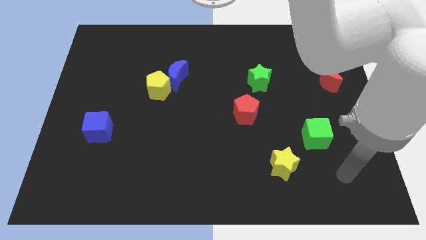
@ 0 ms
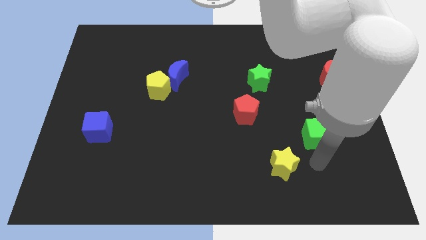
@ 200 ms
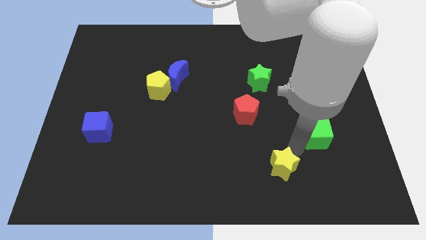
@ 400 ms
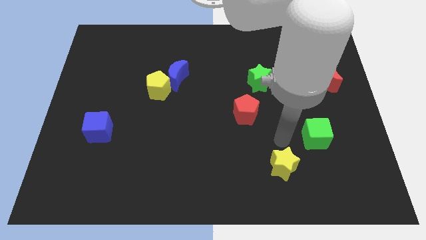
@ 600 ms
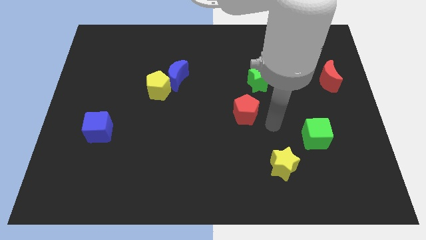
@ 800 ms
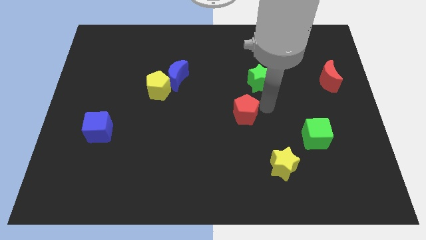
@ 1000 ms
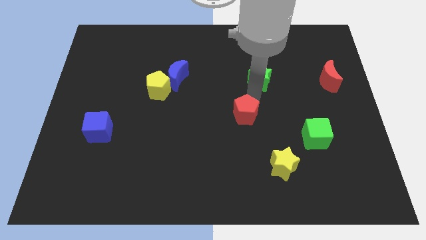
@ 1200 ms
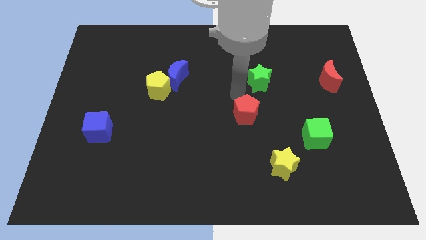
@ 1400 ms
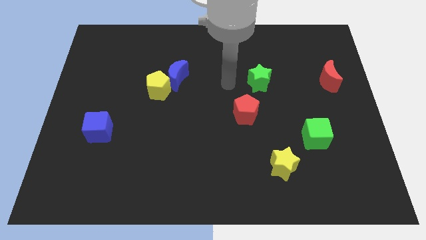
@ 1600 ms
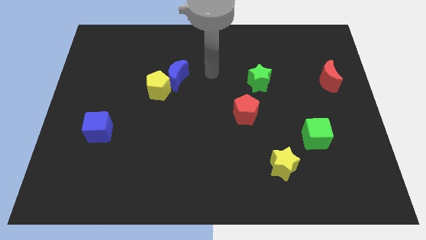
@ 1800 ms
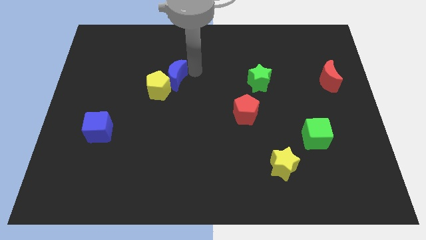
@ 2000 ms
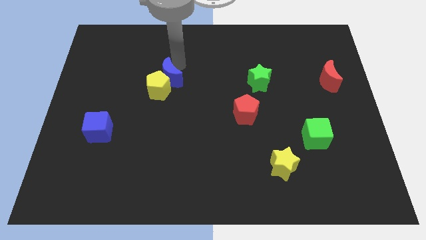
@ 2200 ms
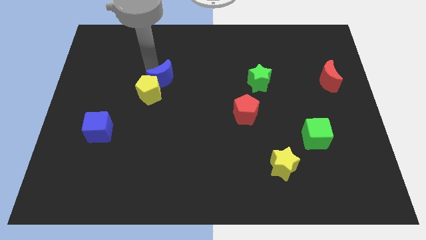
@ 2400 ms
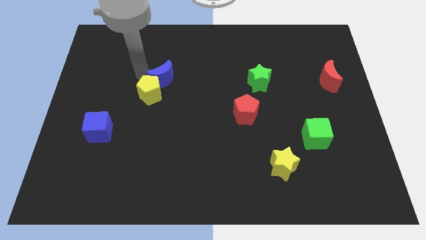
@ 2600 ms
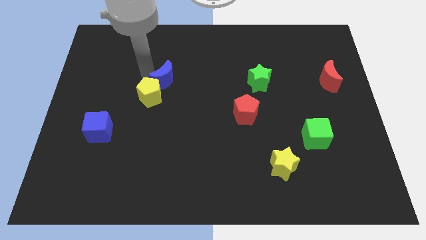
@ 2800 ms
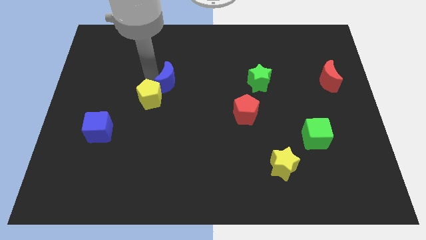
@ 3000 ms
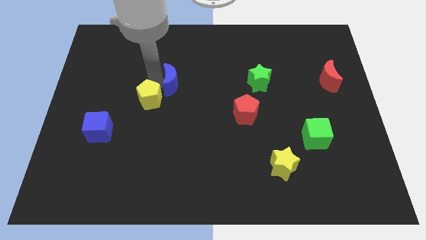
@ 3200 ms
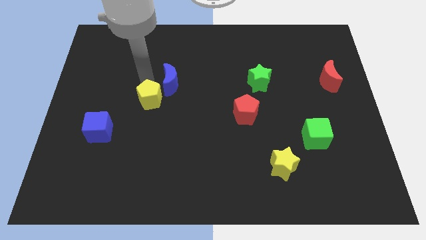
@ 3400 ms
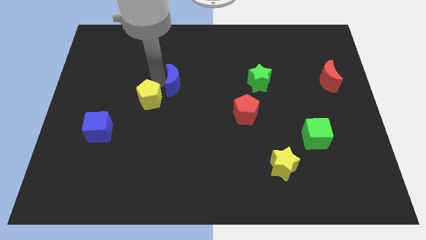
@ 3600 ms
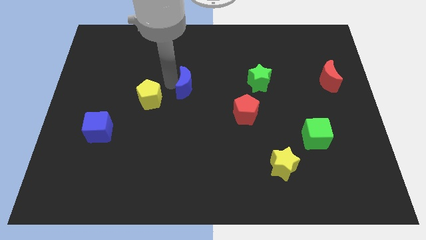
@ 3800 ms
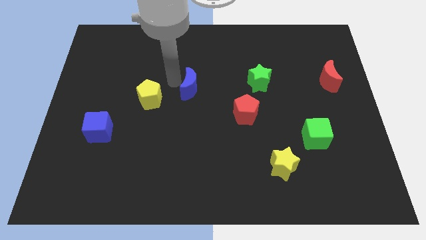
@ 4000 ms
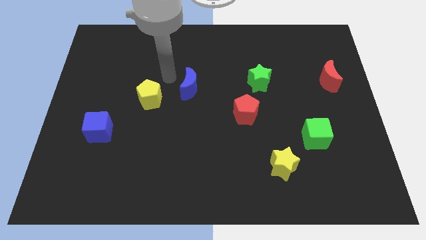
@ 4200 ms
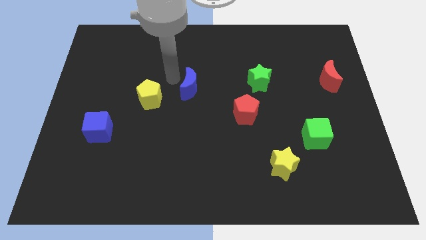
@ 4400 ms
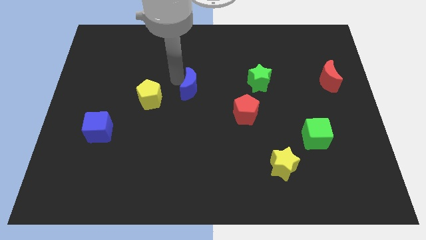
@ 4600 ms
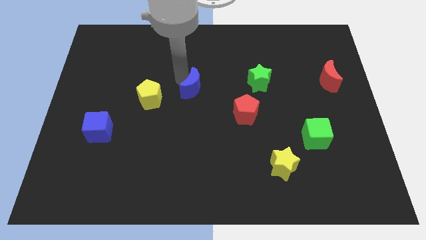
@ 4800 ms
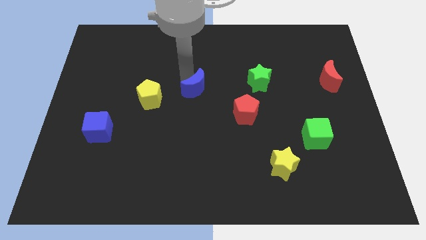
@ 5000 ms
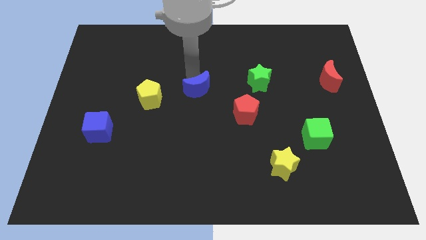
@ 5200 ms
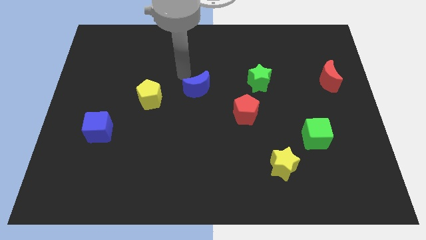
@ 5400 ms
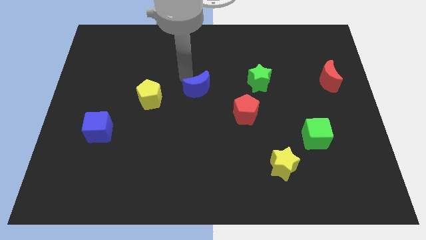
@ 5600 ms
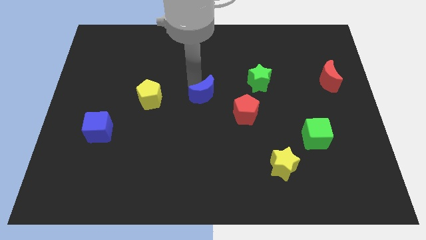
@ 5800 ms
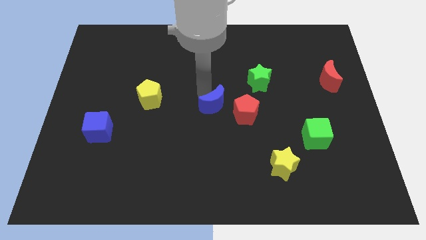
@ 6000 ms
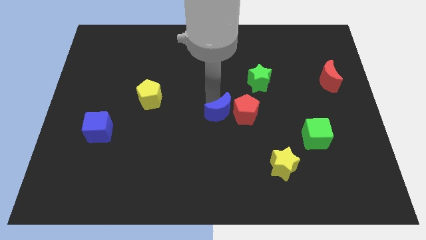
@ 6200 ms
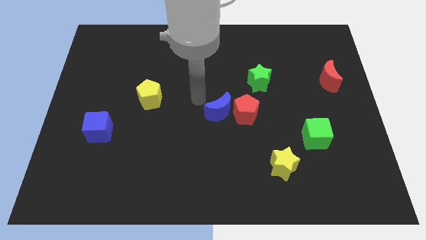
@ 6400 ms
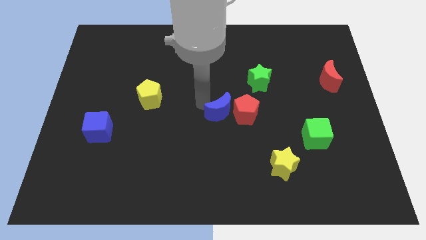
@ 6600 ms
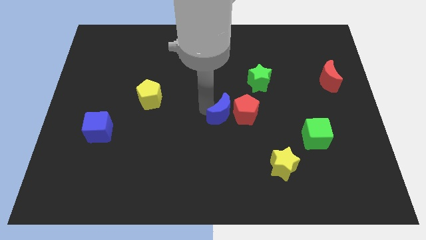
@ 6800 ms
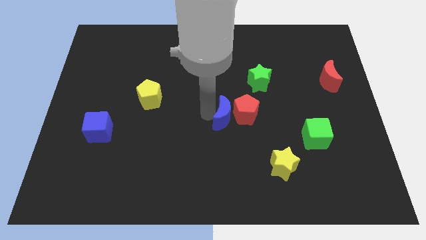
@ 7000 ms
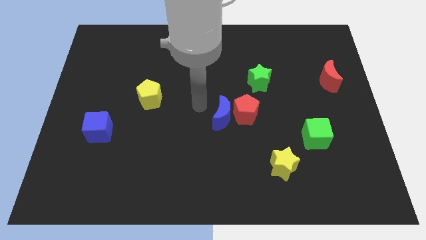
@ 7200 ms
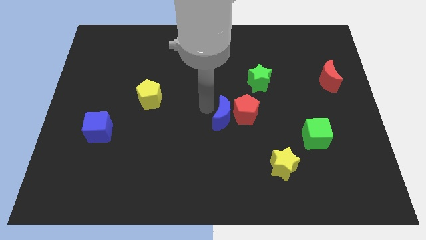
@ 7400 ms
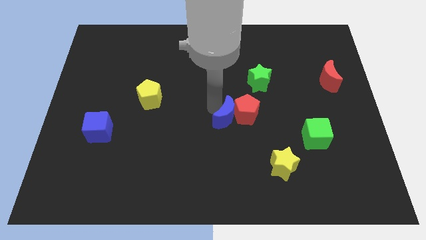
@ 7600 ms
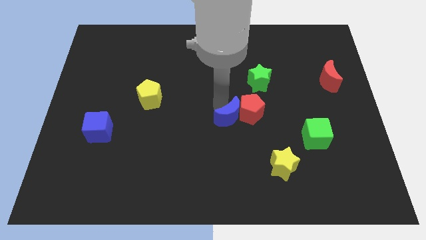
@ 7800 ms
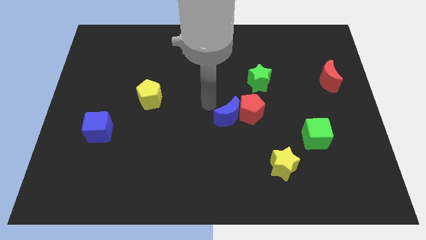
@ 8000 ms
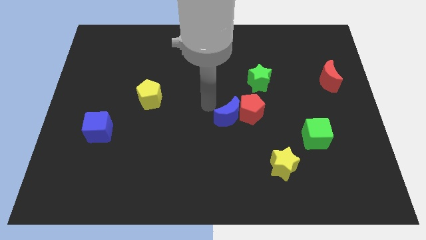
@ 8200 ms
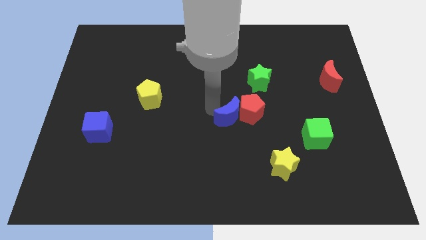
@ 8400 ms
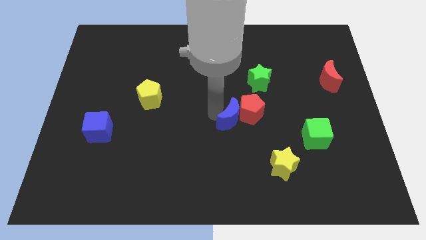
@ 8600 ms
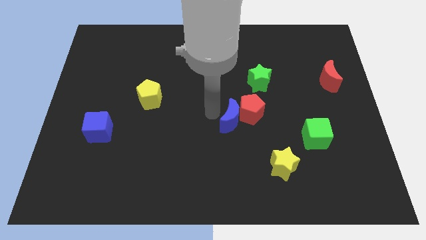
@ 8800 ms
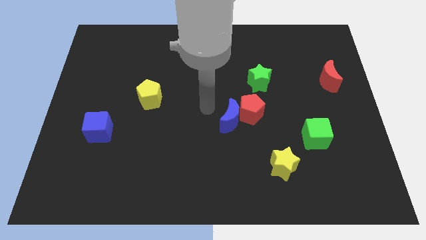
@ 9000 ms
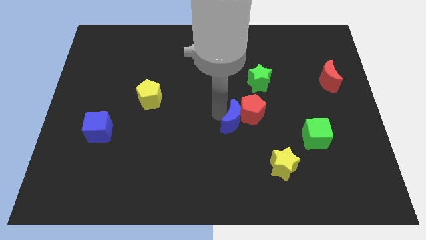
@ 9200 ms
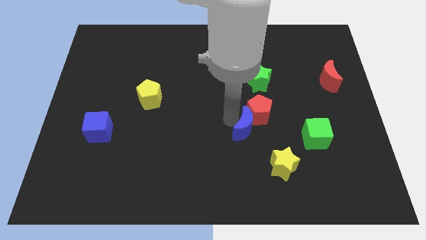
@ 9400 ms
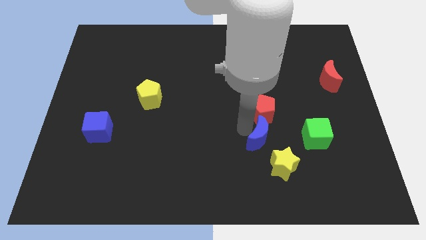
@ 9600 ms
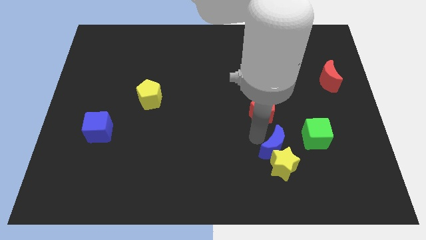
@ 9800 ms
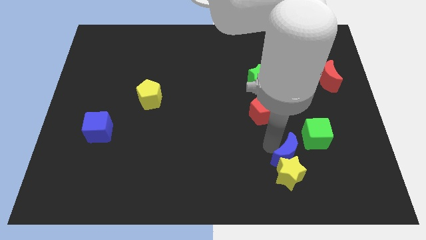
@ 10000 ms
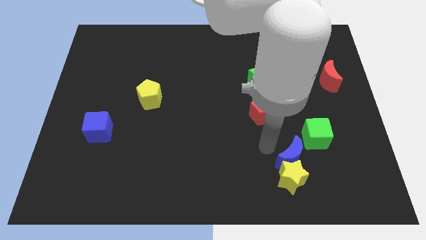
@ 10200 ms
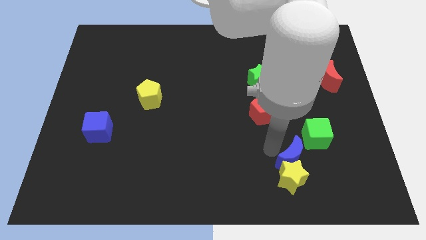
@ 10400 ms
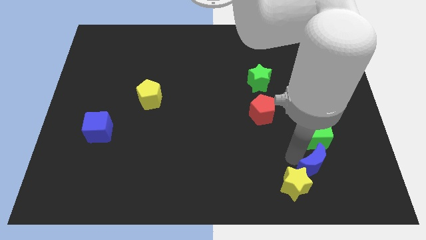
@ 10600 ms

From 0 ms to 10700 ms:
slide the blue moon to the right of the yellow star

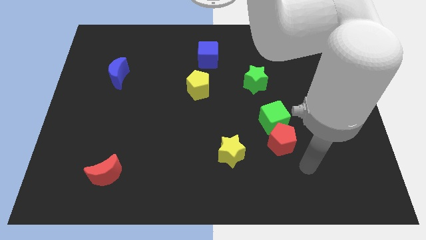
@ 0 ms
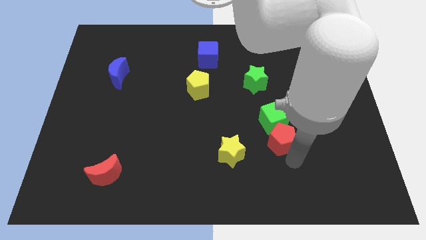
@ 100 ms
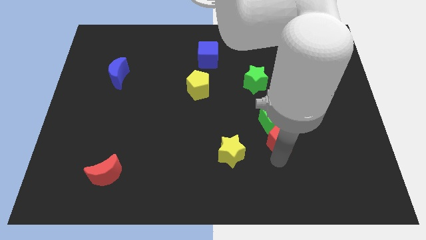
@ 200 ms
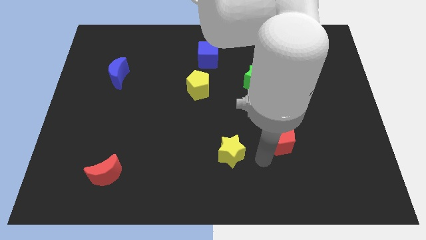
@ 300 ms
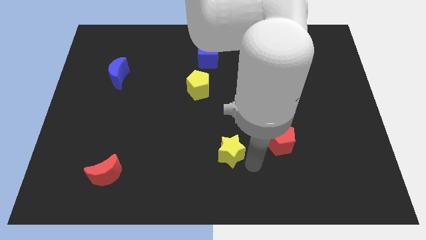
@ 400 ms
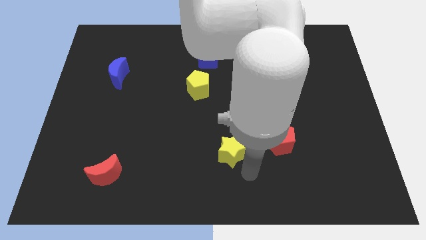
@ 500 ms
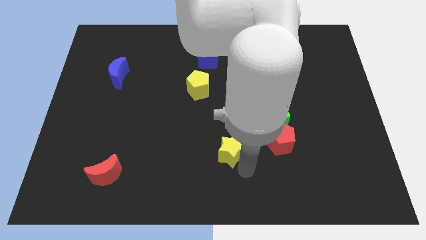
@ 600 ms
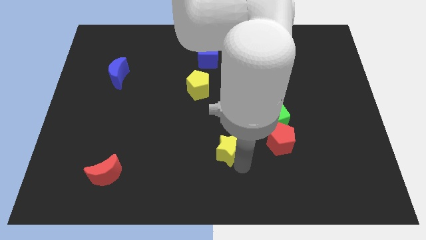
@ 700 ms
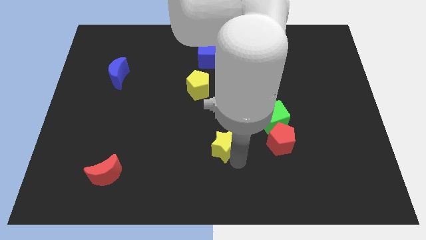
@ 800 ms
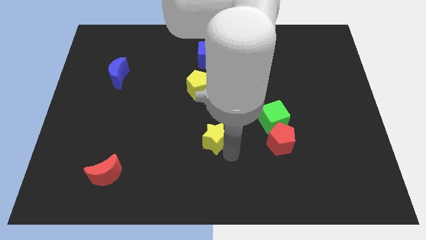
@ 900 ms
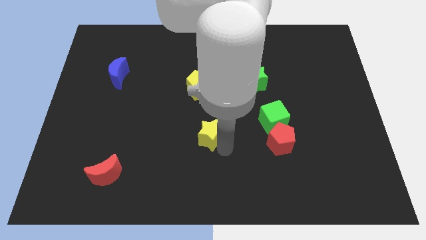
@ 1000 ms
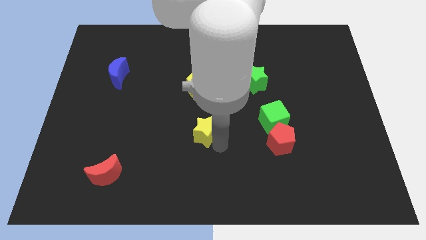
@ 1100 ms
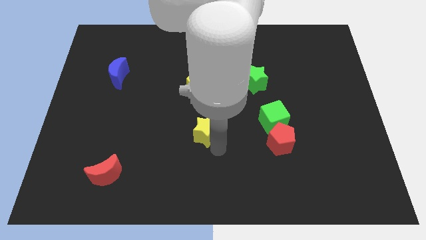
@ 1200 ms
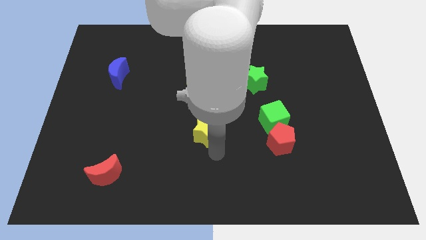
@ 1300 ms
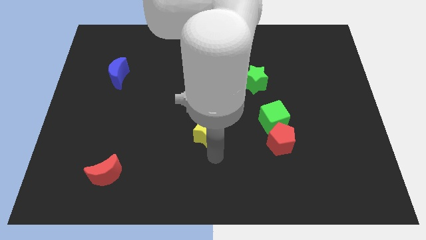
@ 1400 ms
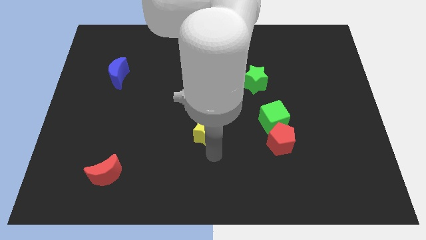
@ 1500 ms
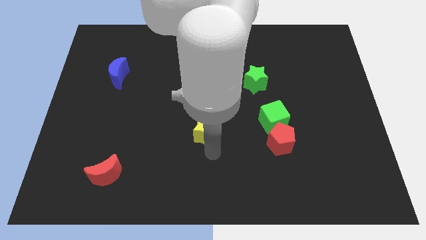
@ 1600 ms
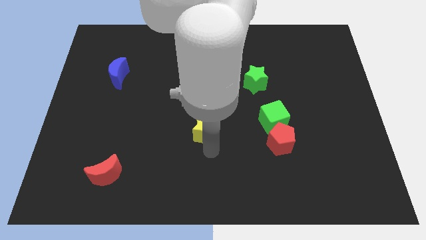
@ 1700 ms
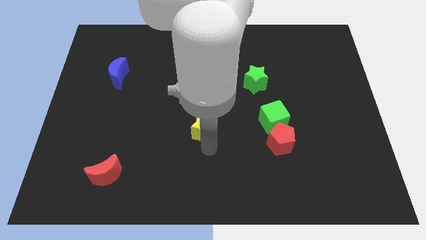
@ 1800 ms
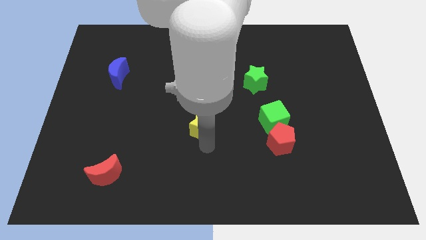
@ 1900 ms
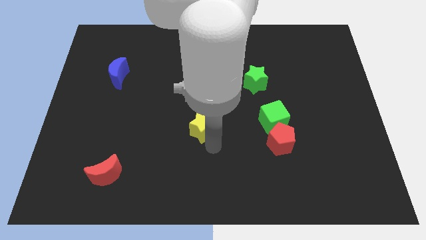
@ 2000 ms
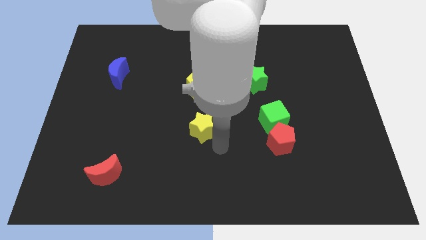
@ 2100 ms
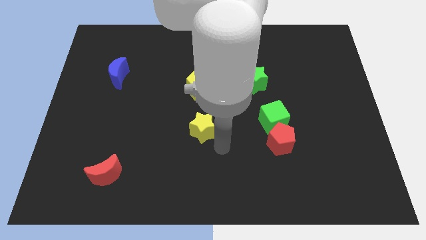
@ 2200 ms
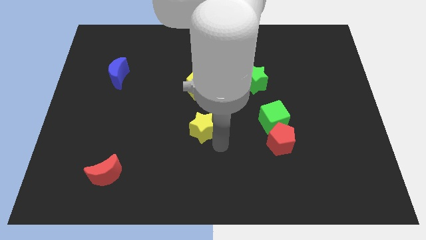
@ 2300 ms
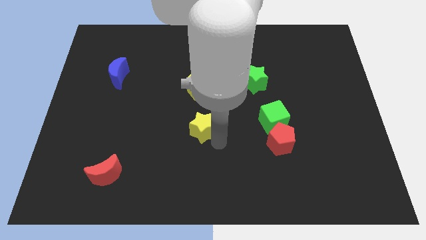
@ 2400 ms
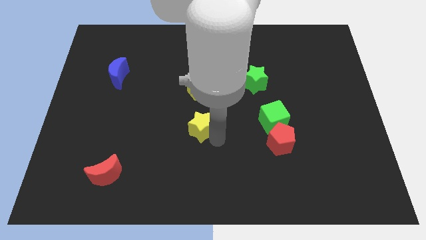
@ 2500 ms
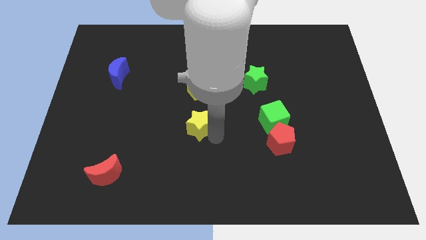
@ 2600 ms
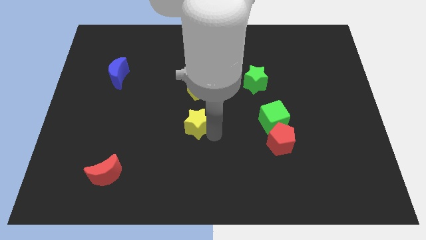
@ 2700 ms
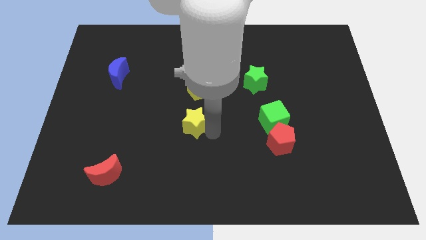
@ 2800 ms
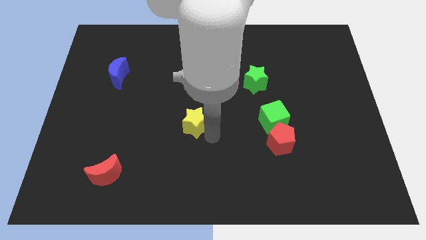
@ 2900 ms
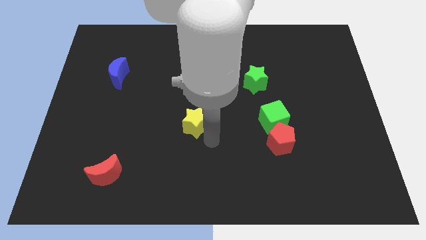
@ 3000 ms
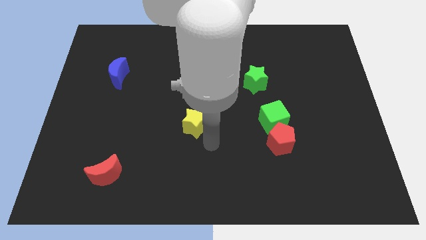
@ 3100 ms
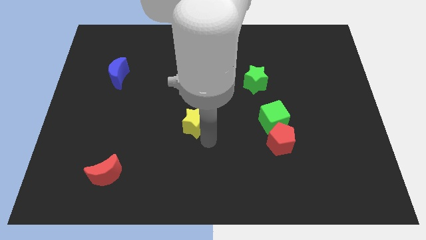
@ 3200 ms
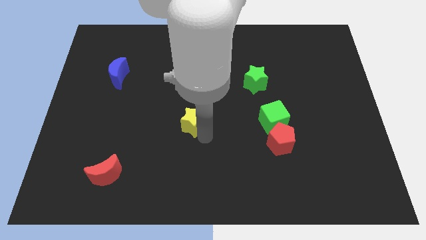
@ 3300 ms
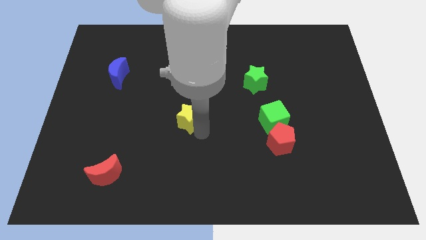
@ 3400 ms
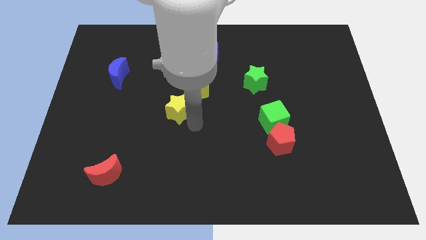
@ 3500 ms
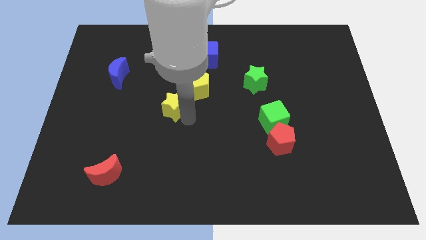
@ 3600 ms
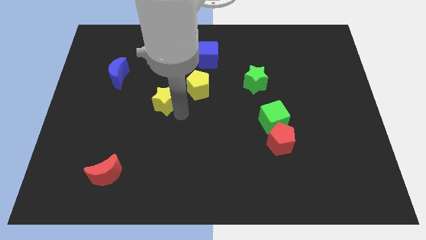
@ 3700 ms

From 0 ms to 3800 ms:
slide the yellow star to the left side of the yellow pentagon
